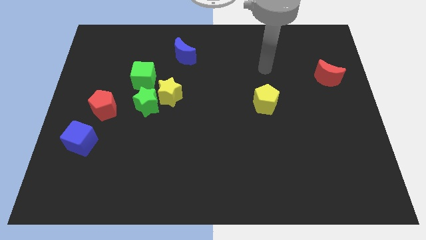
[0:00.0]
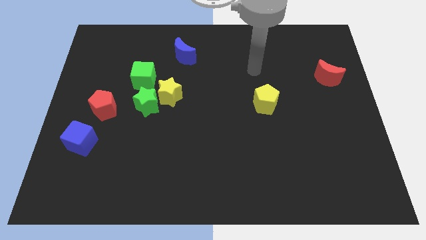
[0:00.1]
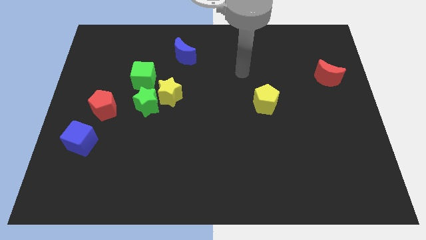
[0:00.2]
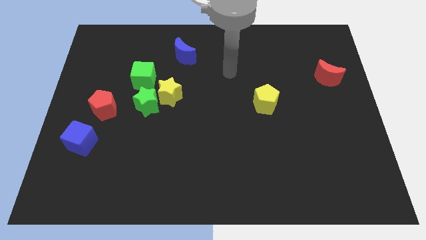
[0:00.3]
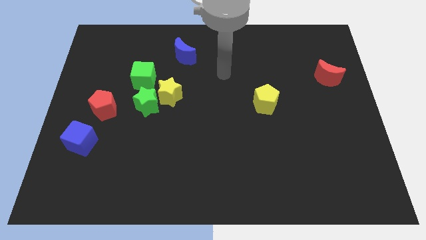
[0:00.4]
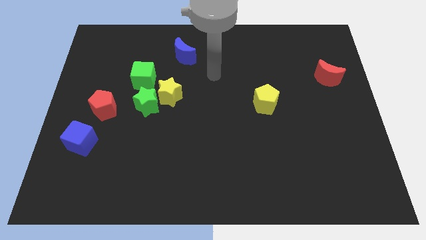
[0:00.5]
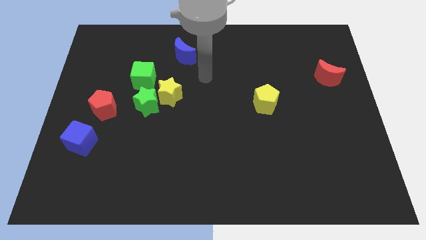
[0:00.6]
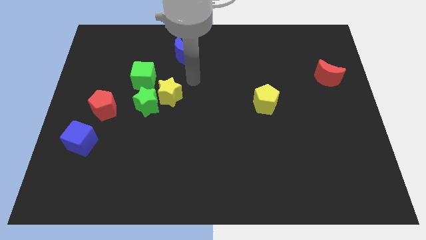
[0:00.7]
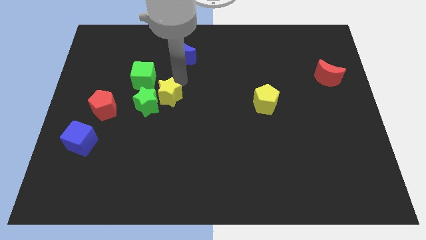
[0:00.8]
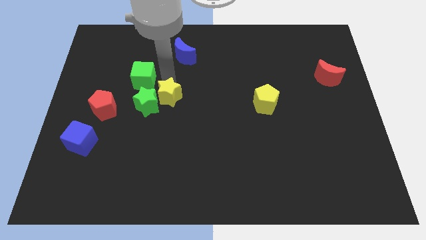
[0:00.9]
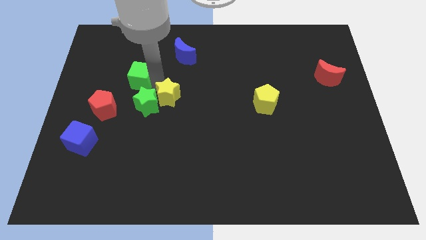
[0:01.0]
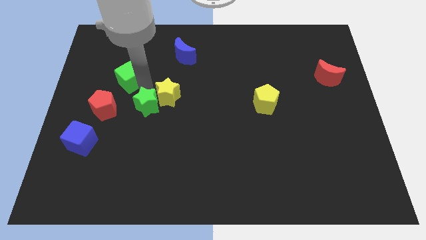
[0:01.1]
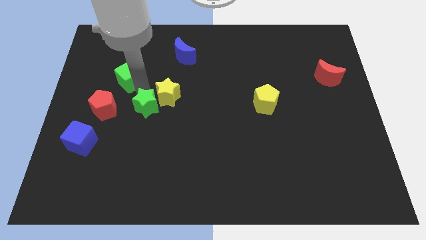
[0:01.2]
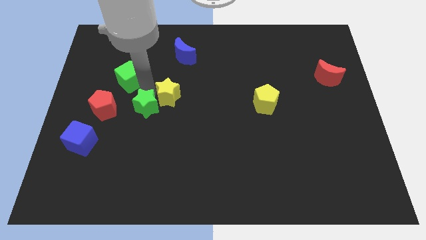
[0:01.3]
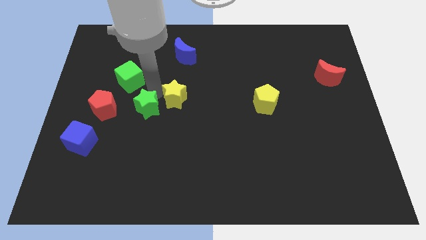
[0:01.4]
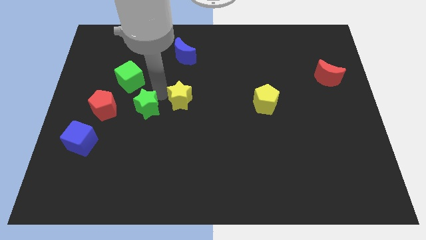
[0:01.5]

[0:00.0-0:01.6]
pull the yellow star apart from the green star and green cube

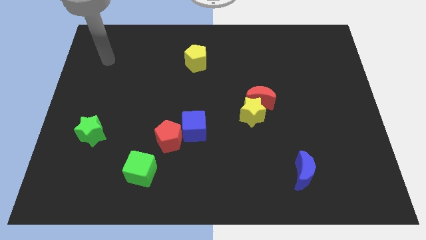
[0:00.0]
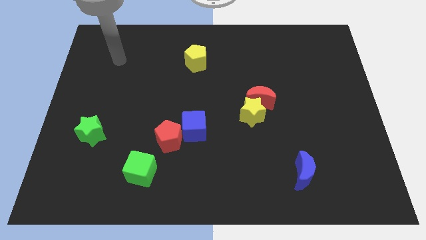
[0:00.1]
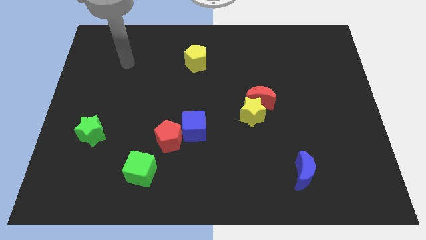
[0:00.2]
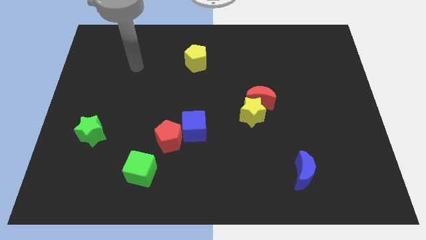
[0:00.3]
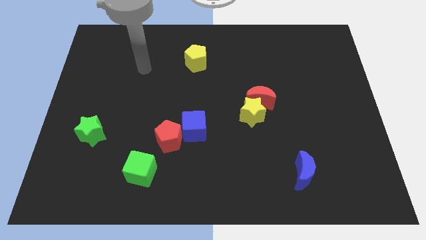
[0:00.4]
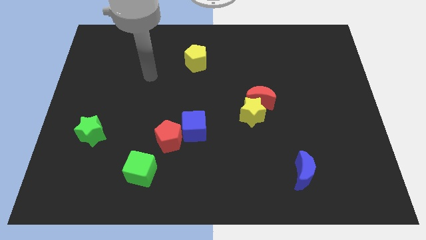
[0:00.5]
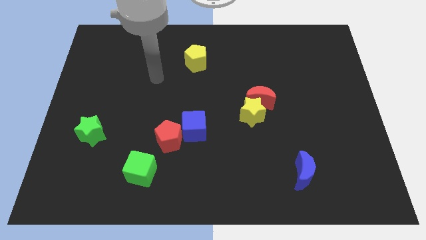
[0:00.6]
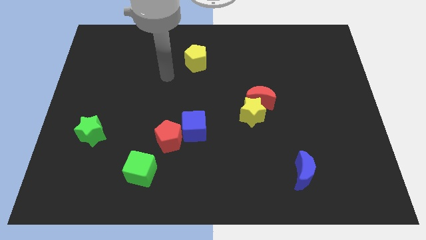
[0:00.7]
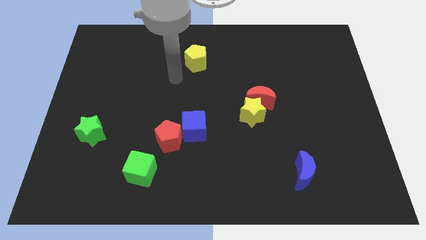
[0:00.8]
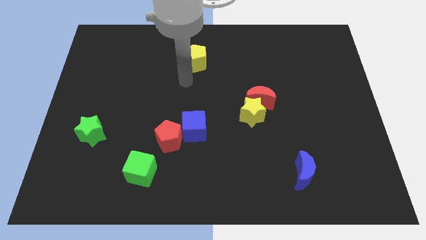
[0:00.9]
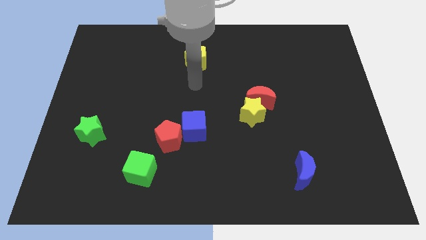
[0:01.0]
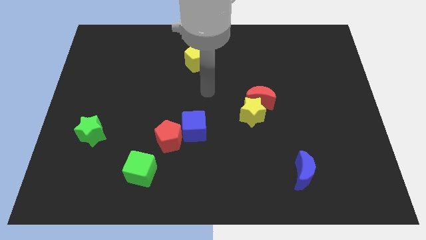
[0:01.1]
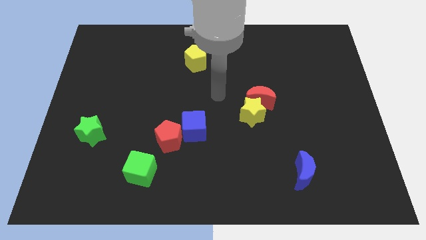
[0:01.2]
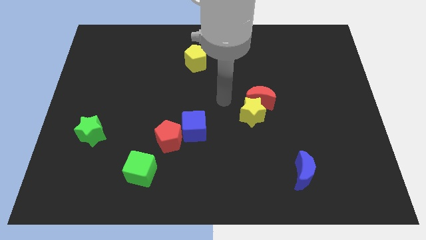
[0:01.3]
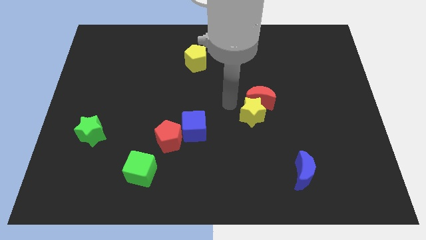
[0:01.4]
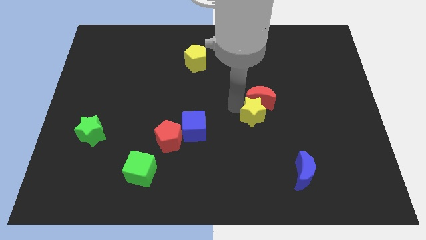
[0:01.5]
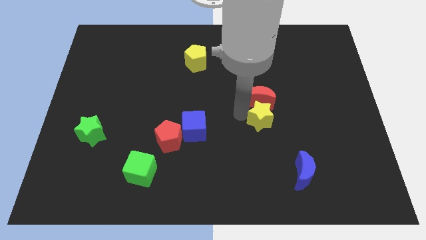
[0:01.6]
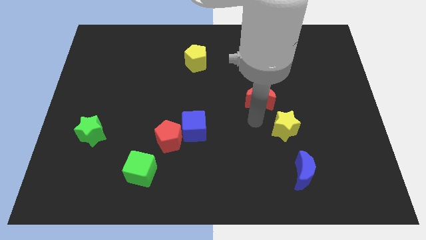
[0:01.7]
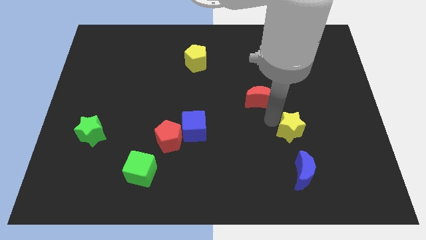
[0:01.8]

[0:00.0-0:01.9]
separate the red moon from the yellow star

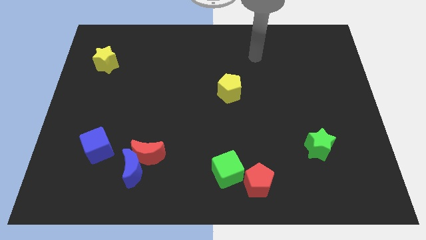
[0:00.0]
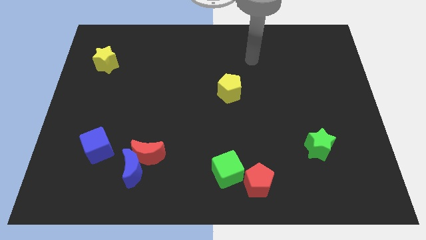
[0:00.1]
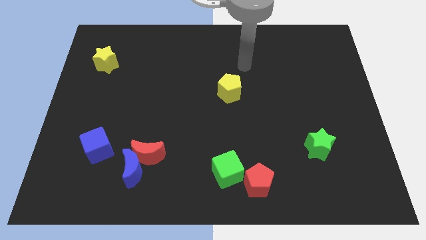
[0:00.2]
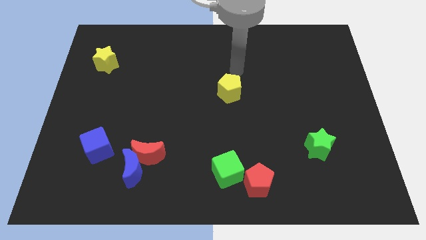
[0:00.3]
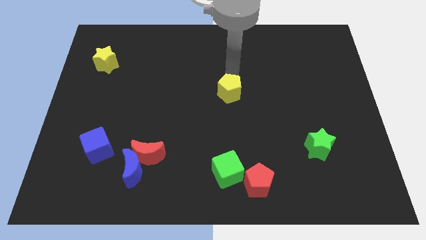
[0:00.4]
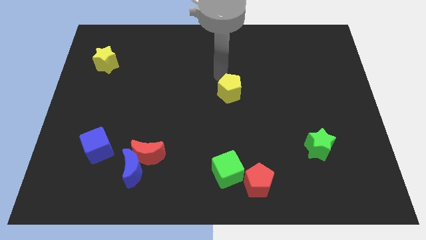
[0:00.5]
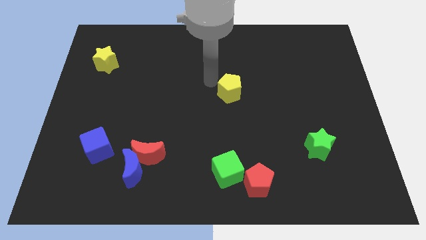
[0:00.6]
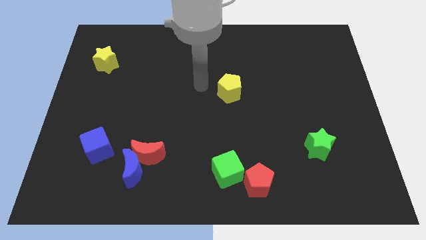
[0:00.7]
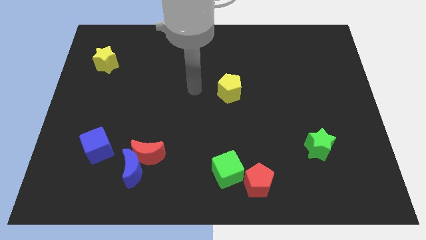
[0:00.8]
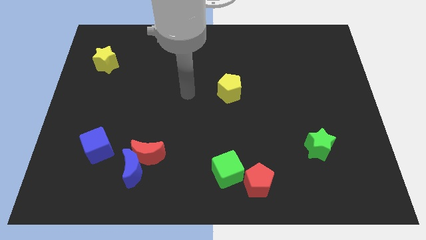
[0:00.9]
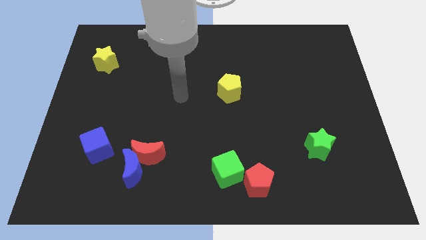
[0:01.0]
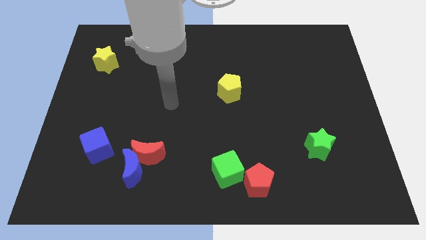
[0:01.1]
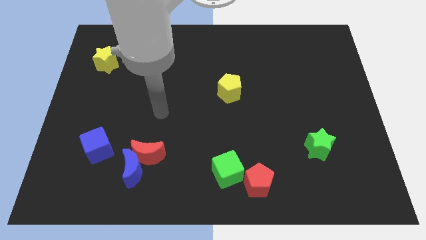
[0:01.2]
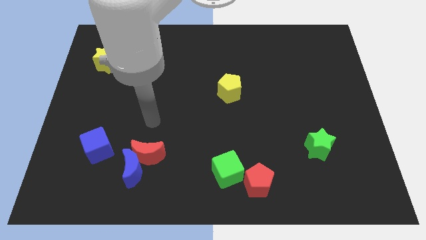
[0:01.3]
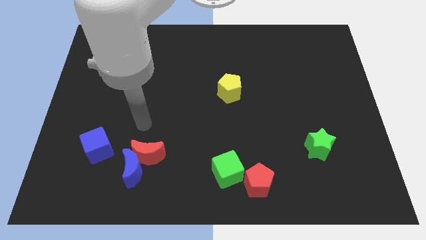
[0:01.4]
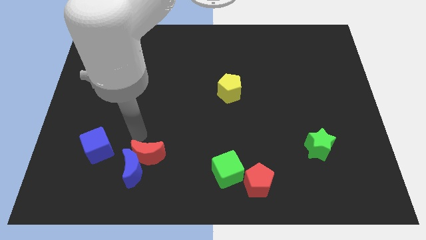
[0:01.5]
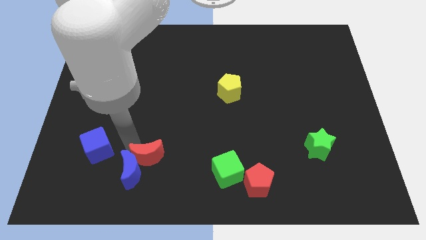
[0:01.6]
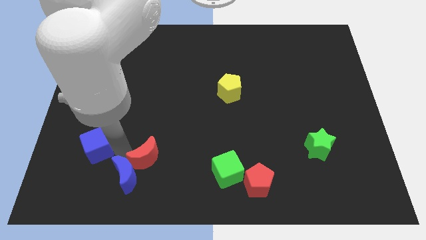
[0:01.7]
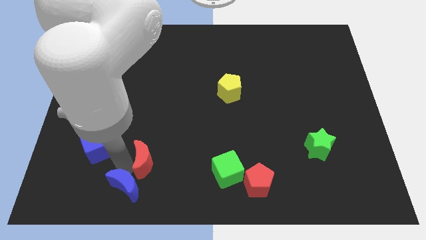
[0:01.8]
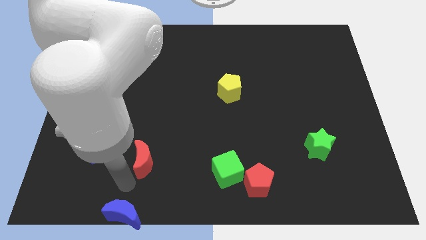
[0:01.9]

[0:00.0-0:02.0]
separate the red moon from the blue moon

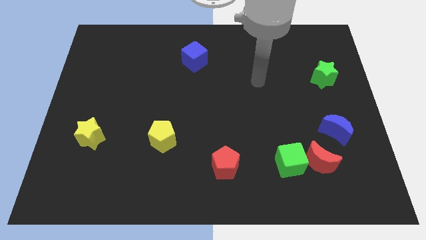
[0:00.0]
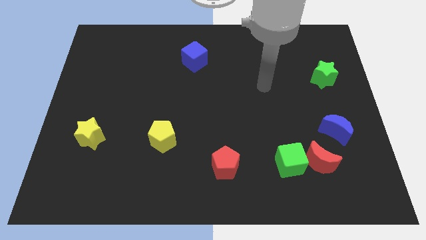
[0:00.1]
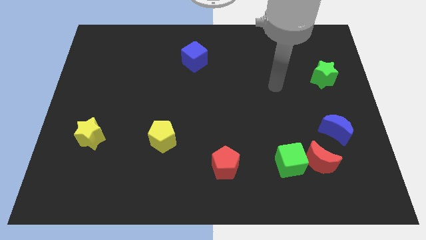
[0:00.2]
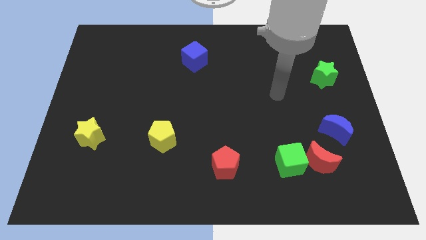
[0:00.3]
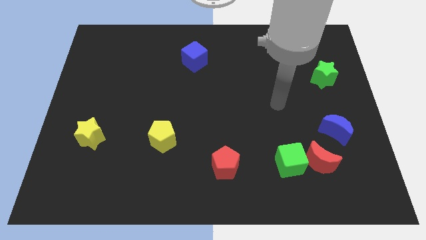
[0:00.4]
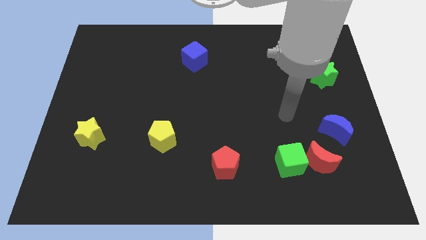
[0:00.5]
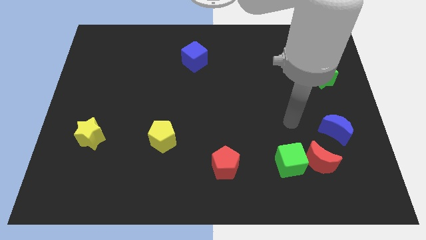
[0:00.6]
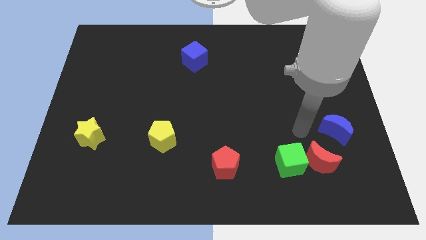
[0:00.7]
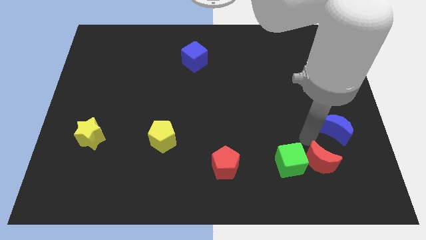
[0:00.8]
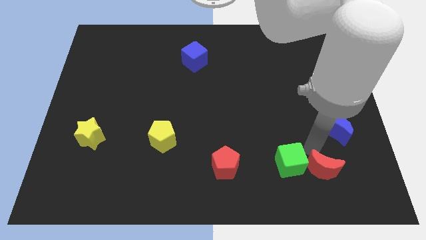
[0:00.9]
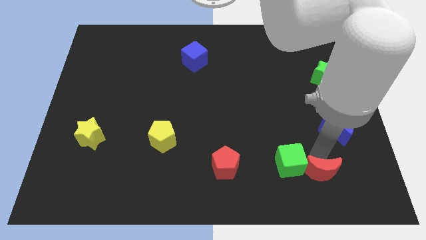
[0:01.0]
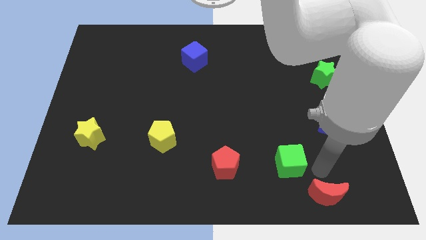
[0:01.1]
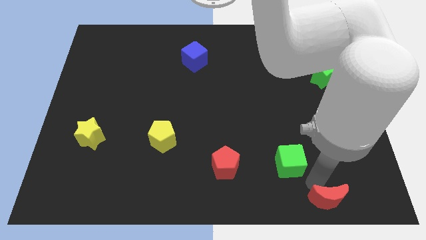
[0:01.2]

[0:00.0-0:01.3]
pull the green cube apart from the red moon

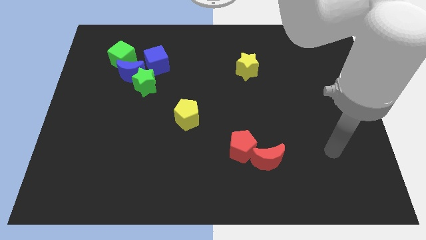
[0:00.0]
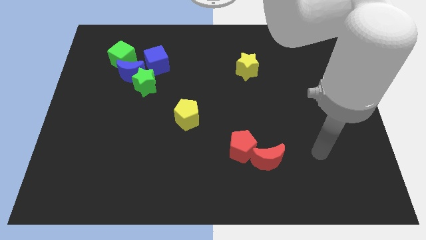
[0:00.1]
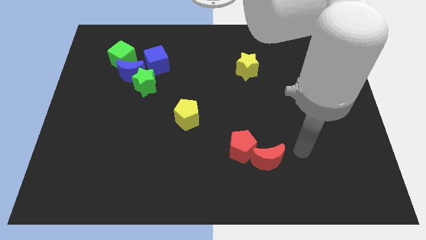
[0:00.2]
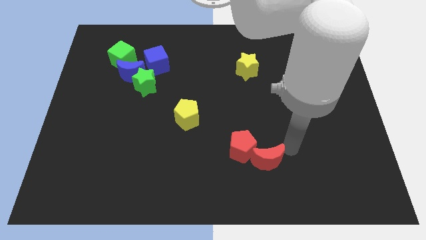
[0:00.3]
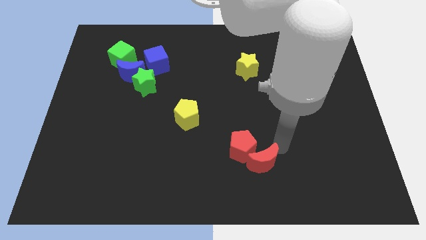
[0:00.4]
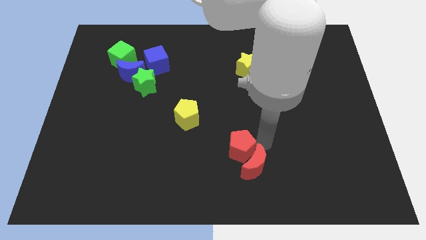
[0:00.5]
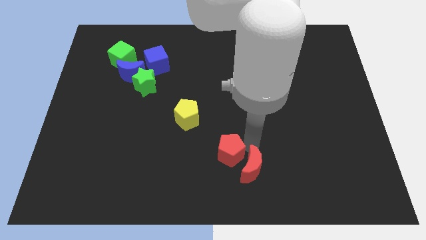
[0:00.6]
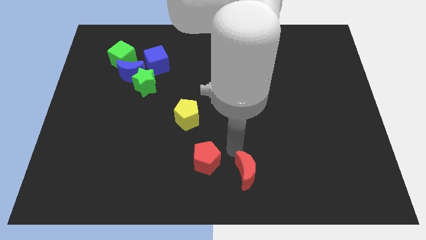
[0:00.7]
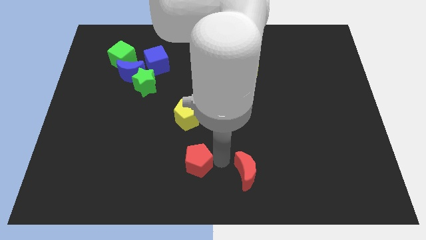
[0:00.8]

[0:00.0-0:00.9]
pull the red moon apart from the red pentagon

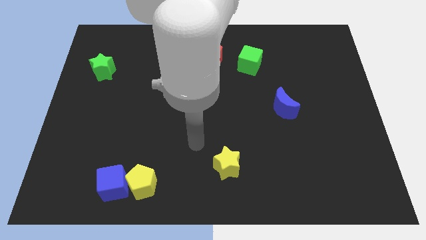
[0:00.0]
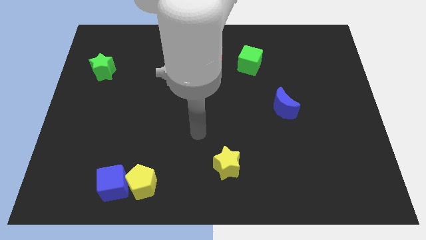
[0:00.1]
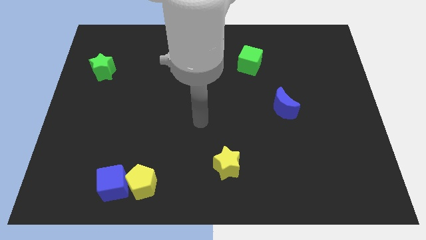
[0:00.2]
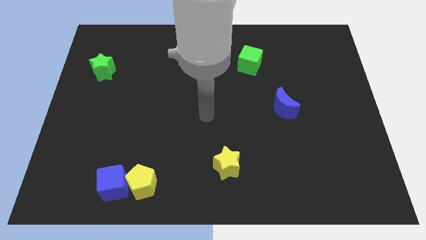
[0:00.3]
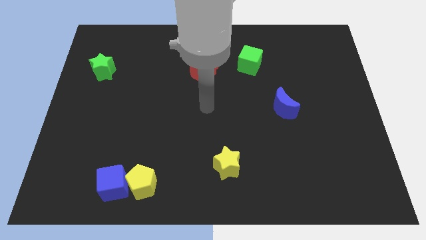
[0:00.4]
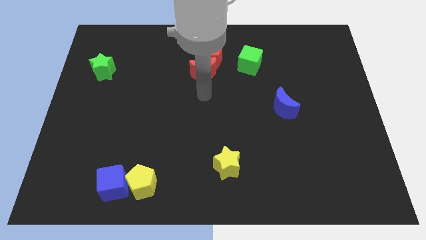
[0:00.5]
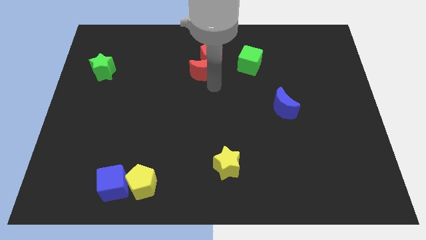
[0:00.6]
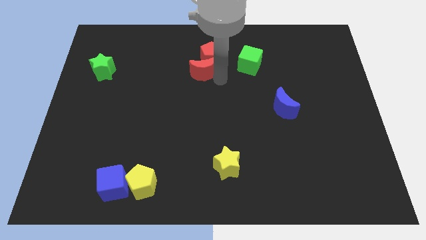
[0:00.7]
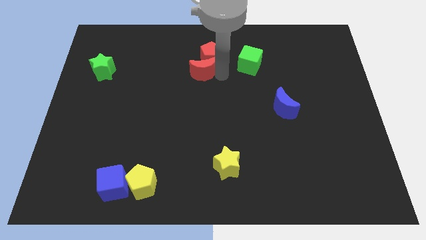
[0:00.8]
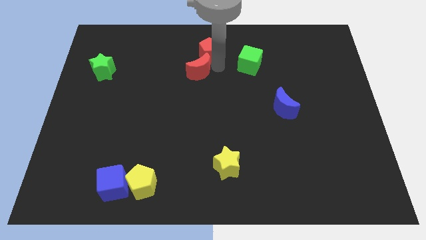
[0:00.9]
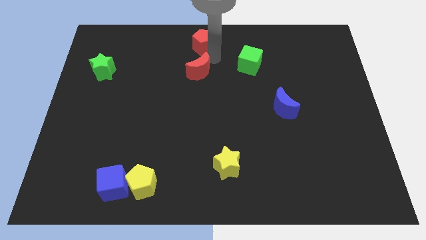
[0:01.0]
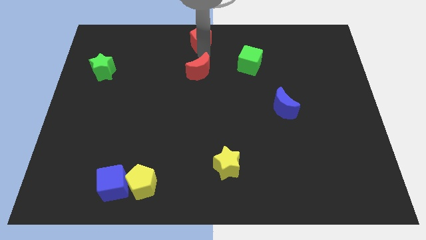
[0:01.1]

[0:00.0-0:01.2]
separate the red moon from the red pentagon

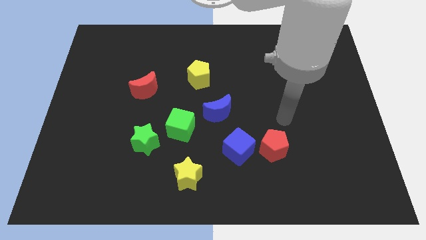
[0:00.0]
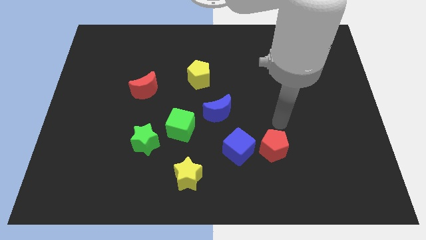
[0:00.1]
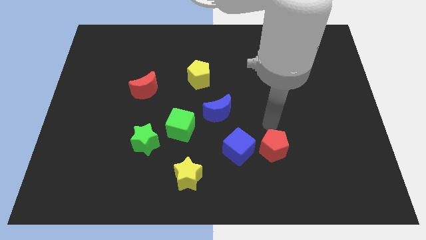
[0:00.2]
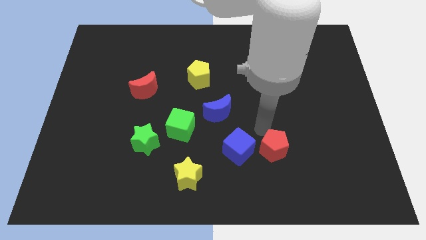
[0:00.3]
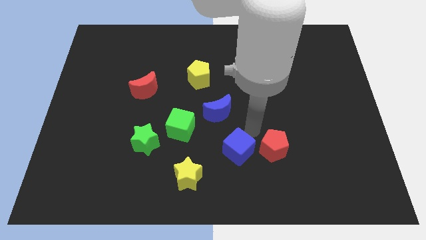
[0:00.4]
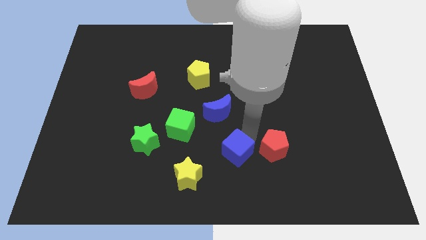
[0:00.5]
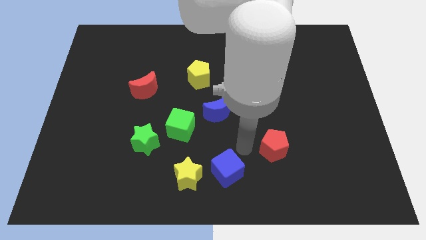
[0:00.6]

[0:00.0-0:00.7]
separate the red pentagon from the blue cube
